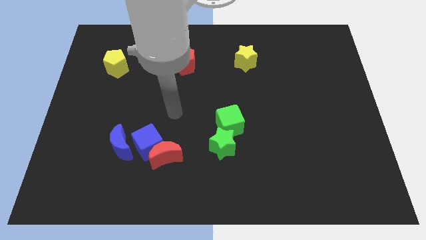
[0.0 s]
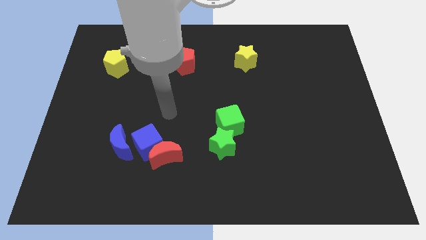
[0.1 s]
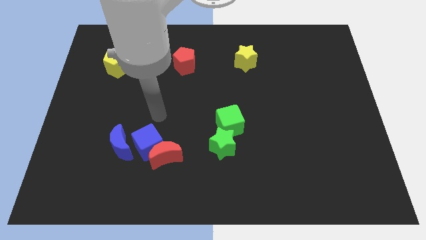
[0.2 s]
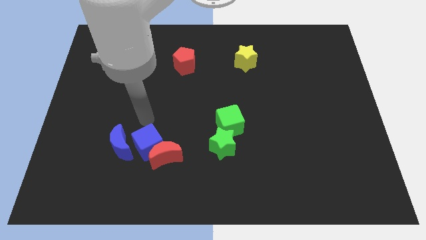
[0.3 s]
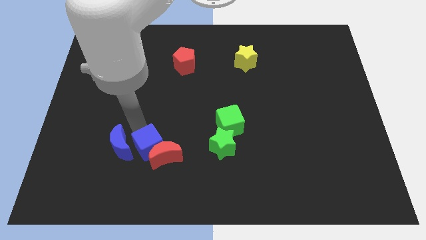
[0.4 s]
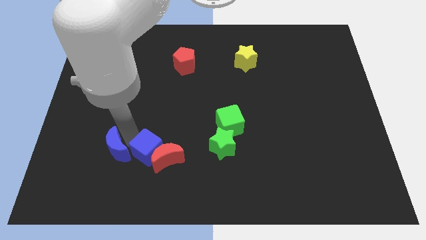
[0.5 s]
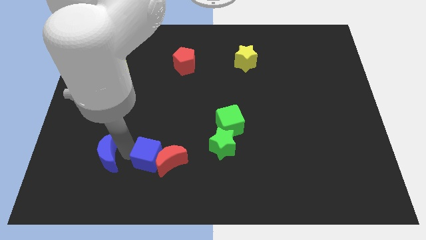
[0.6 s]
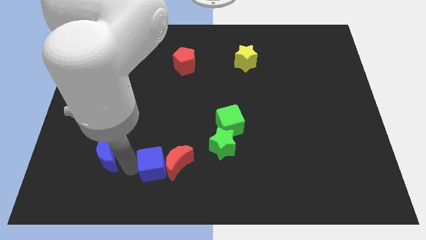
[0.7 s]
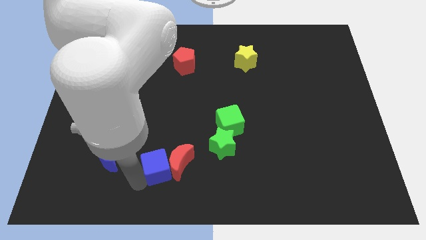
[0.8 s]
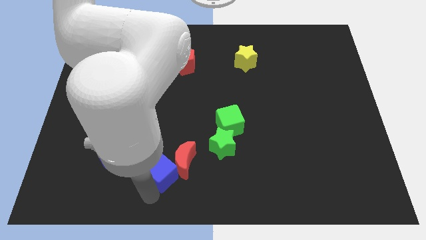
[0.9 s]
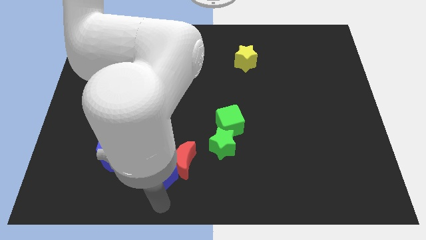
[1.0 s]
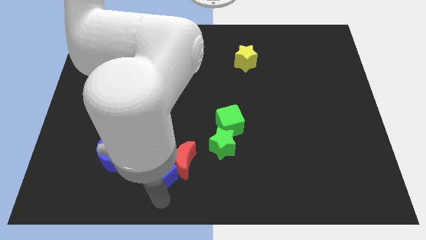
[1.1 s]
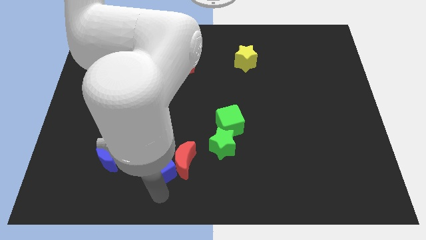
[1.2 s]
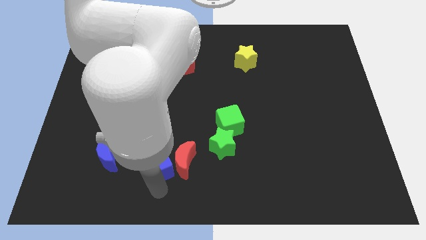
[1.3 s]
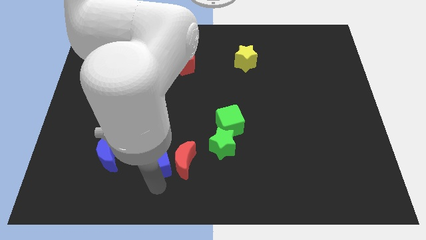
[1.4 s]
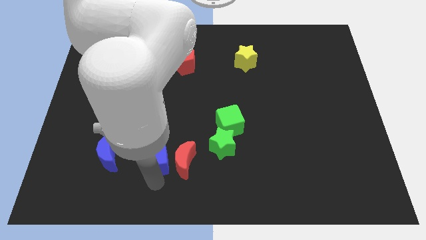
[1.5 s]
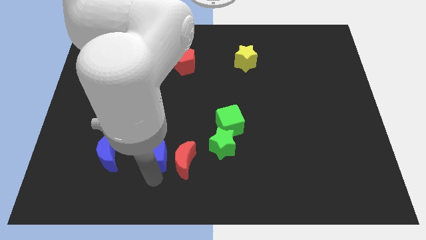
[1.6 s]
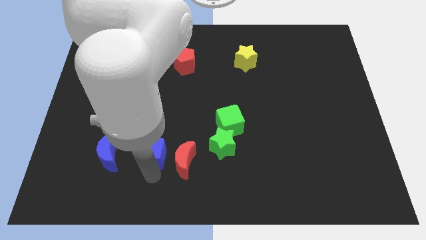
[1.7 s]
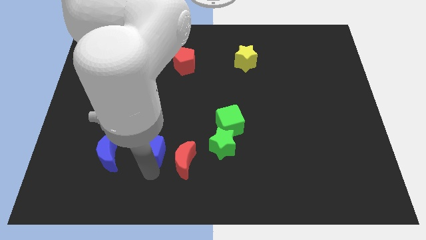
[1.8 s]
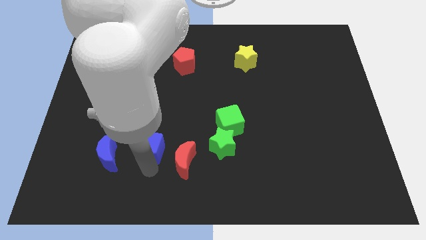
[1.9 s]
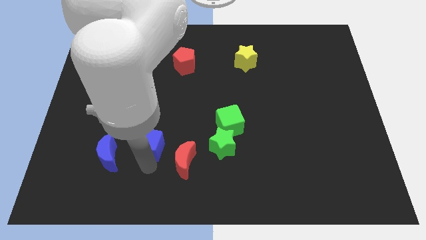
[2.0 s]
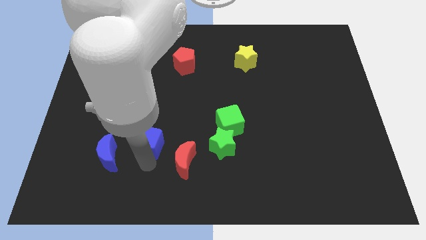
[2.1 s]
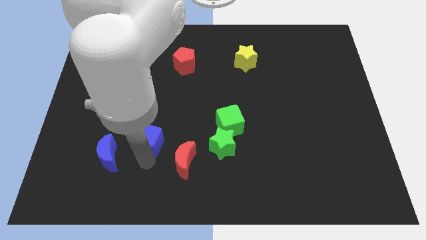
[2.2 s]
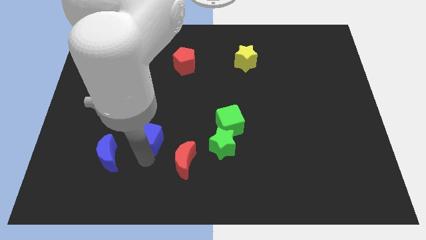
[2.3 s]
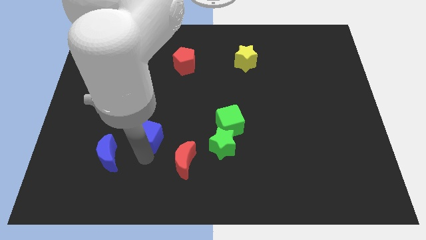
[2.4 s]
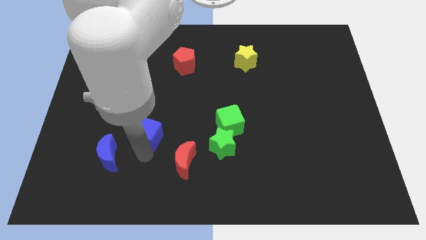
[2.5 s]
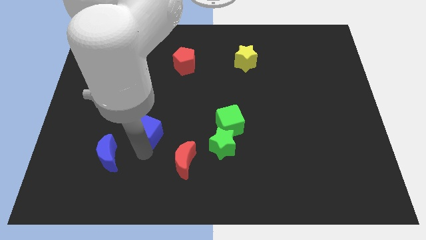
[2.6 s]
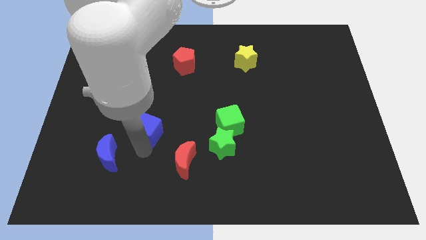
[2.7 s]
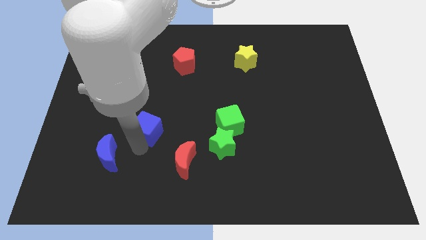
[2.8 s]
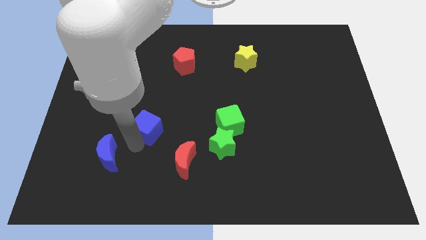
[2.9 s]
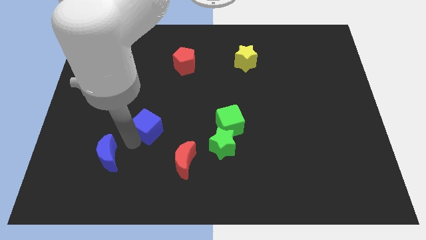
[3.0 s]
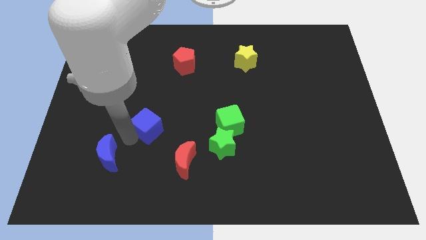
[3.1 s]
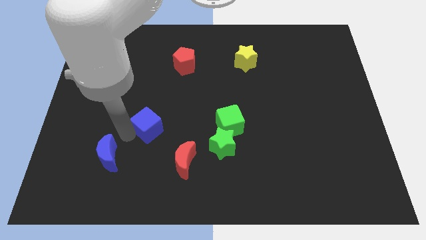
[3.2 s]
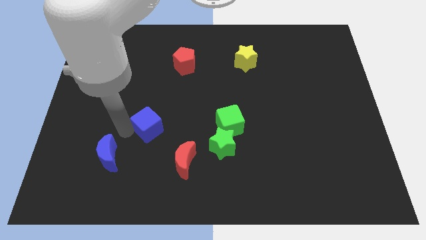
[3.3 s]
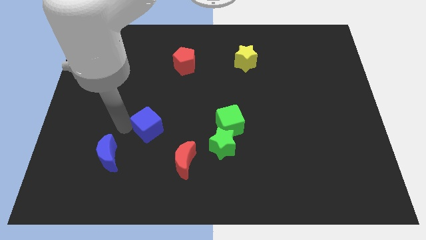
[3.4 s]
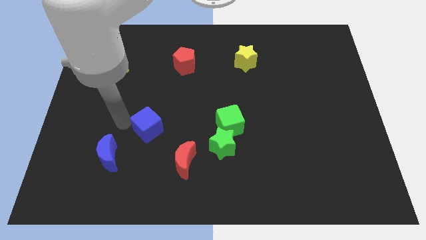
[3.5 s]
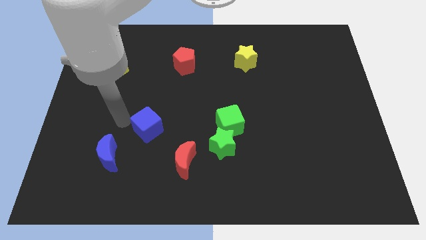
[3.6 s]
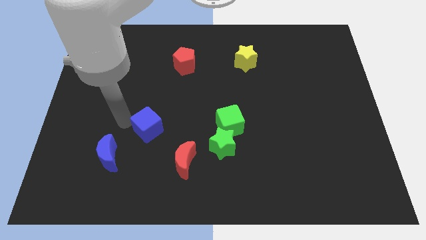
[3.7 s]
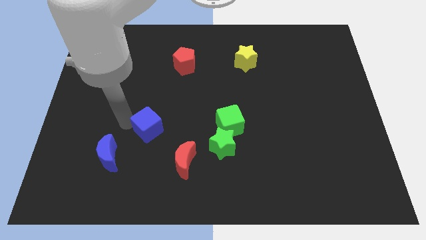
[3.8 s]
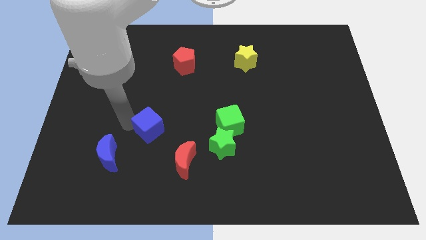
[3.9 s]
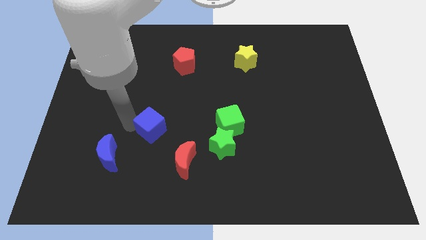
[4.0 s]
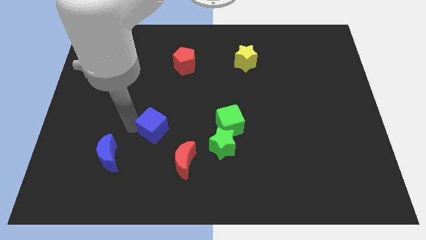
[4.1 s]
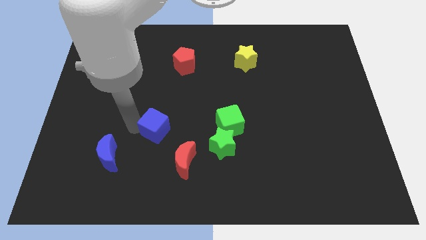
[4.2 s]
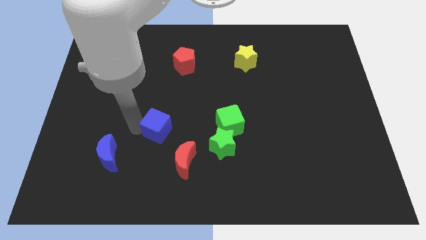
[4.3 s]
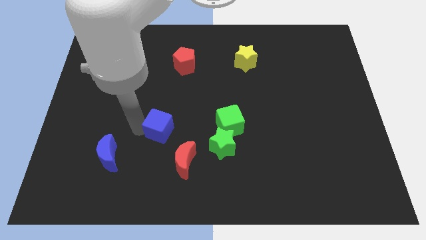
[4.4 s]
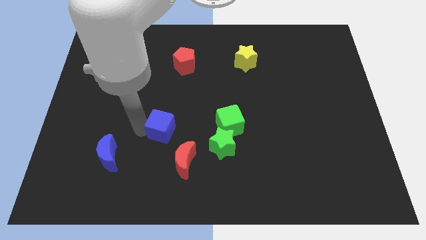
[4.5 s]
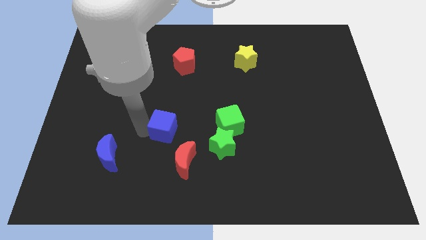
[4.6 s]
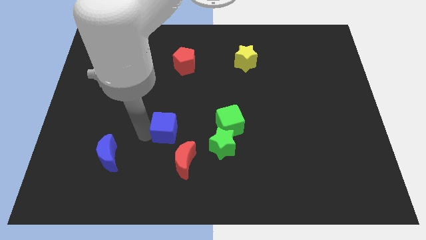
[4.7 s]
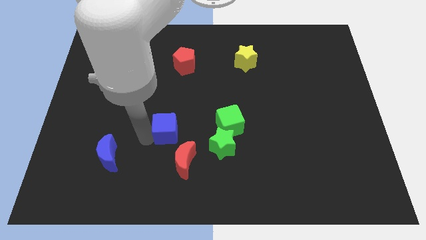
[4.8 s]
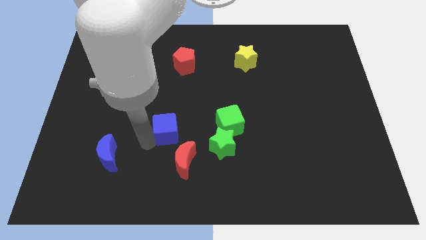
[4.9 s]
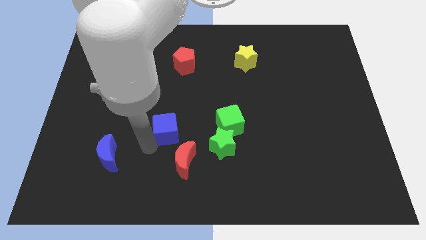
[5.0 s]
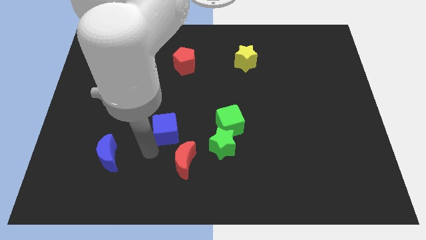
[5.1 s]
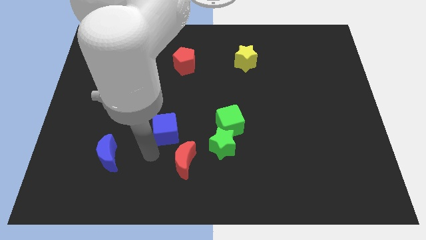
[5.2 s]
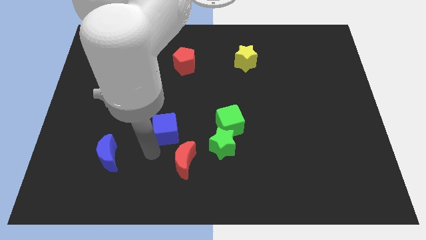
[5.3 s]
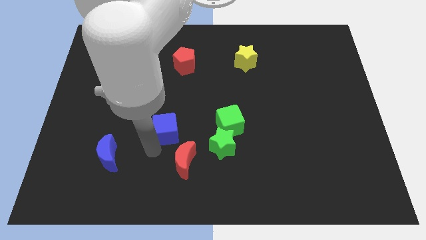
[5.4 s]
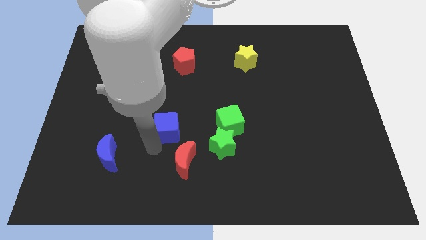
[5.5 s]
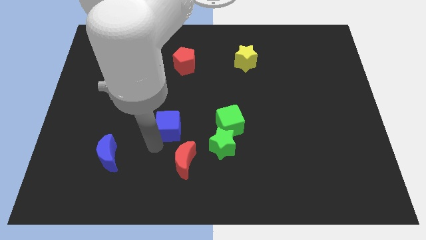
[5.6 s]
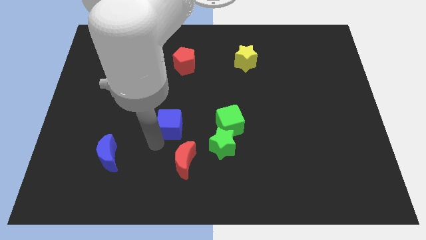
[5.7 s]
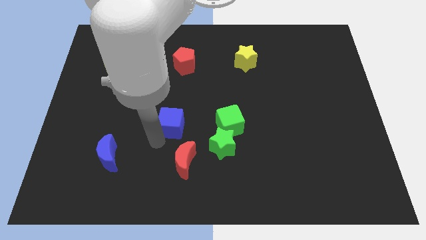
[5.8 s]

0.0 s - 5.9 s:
move the blue cube away from the red moon and blue moon

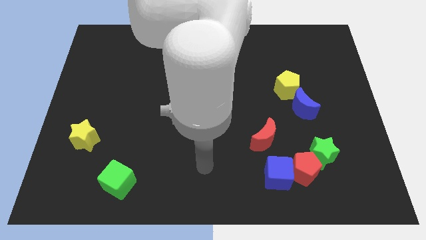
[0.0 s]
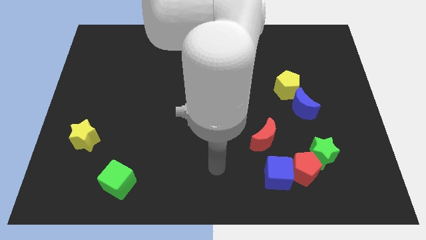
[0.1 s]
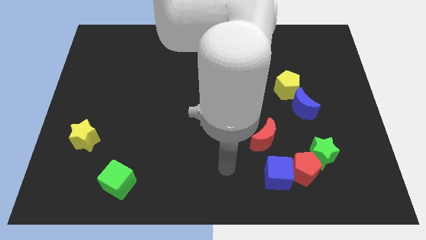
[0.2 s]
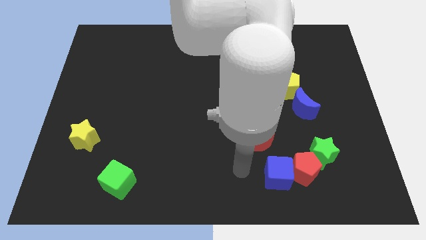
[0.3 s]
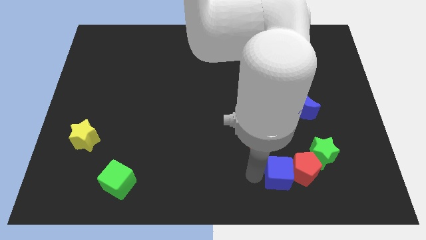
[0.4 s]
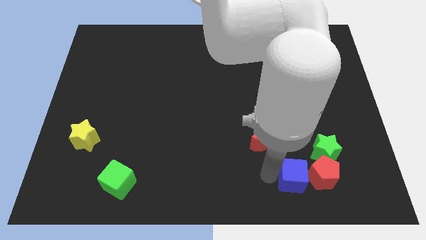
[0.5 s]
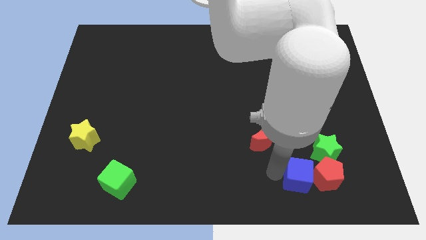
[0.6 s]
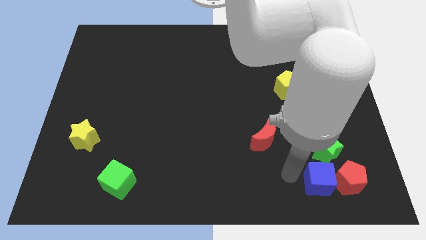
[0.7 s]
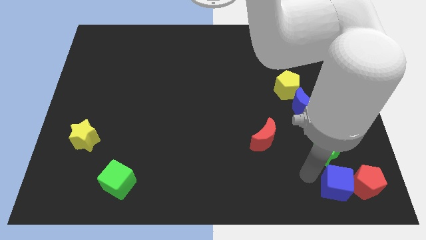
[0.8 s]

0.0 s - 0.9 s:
separate the green star from the red pentagon

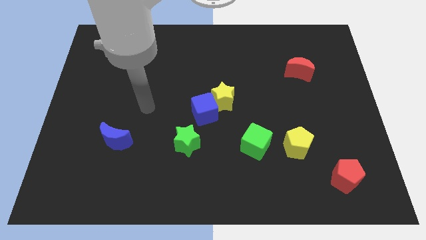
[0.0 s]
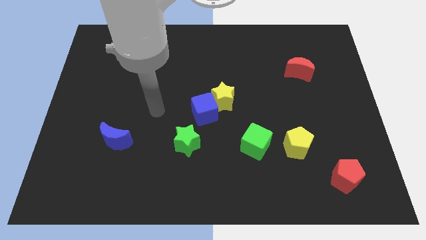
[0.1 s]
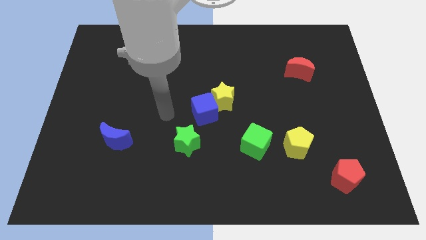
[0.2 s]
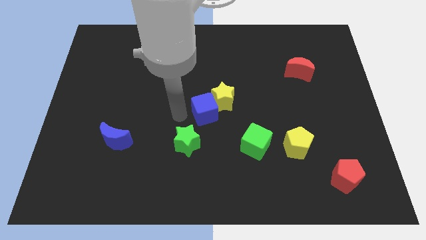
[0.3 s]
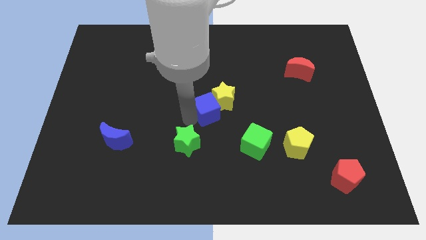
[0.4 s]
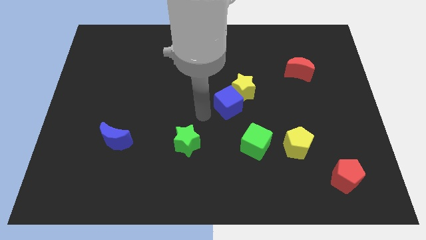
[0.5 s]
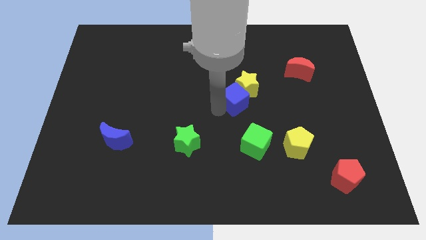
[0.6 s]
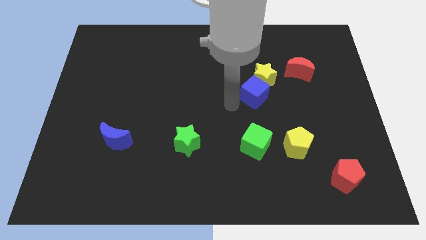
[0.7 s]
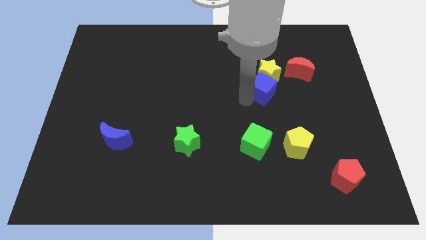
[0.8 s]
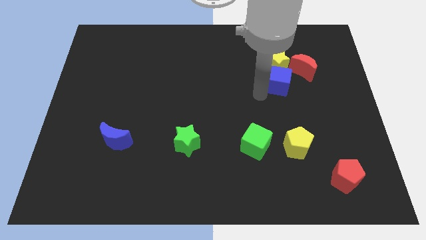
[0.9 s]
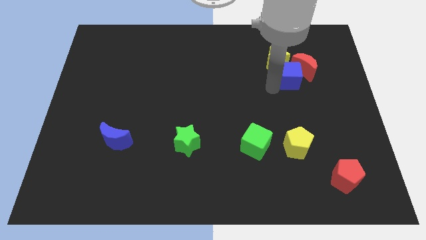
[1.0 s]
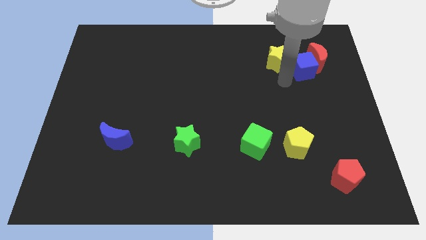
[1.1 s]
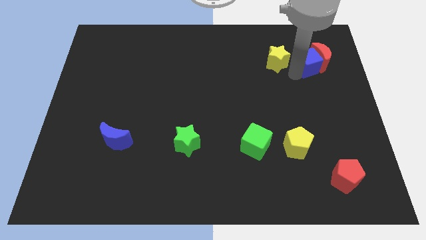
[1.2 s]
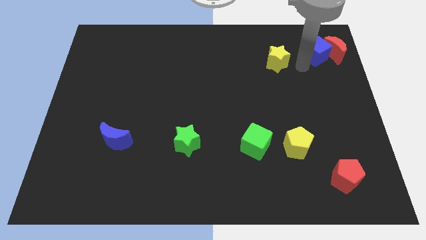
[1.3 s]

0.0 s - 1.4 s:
move the yellow star away from the blue cube

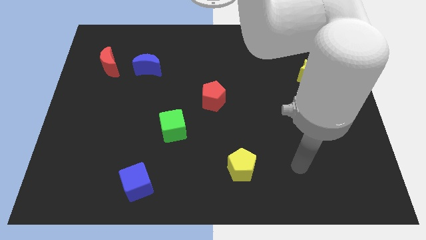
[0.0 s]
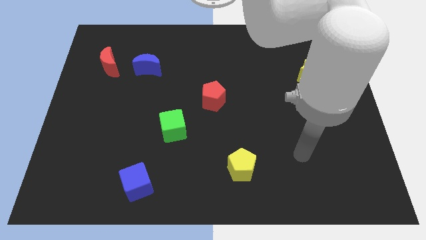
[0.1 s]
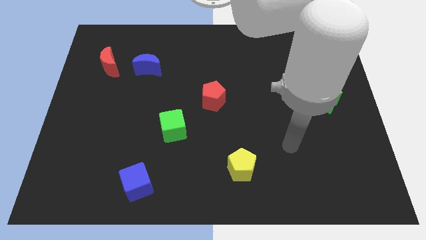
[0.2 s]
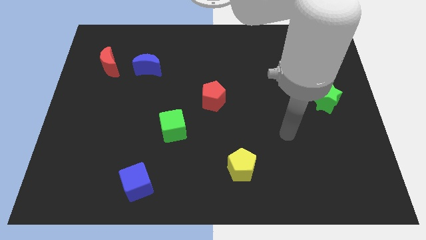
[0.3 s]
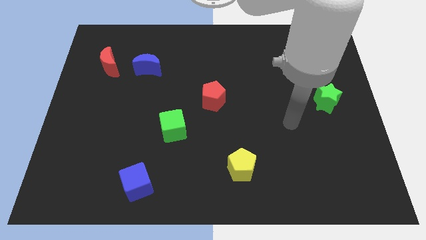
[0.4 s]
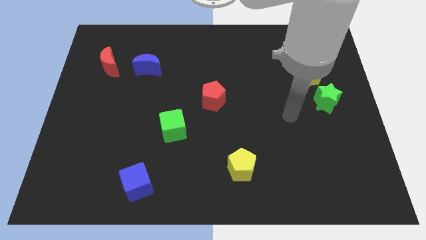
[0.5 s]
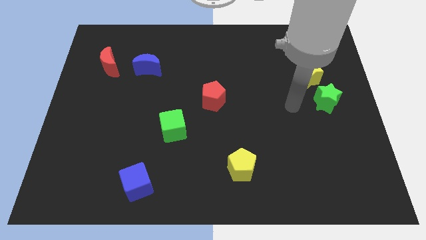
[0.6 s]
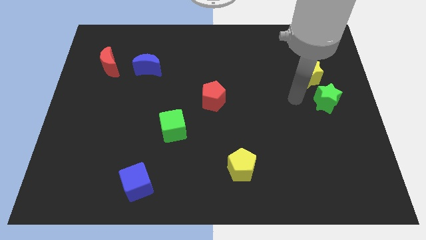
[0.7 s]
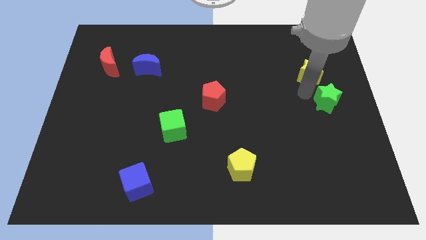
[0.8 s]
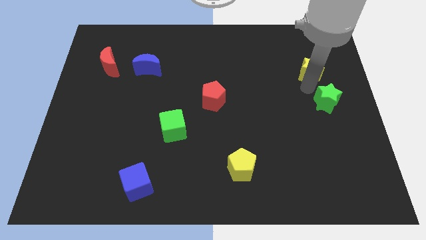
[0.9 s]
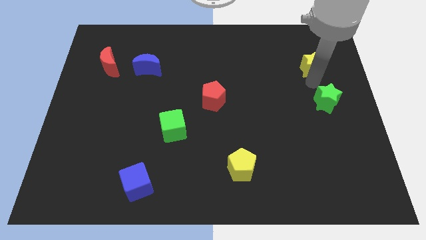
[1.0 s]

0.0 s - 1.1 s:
separate the green star from the yellow star

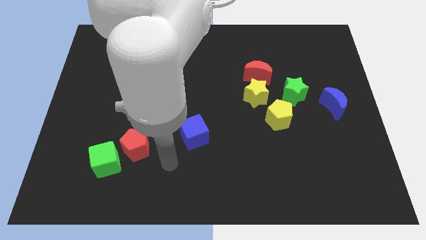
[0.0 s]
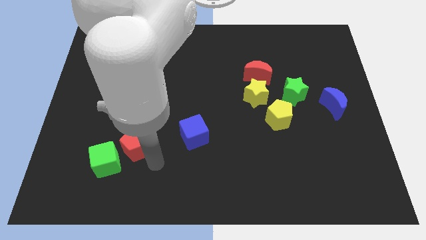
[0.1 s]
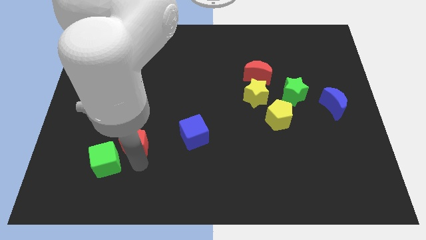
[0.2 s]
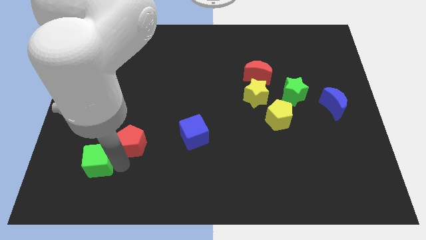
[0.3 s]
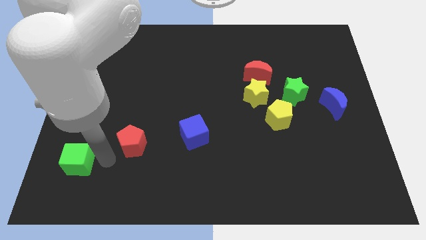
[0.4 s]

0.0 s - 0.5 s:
separate the red pentagon from the green cube
